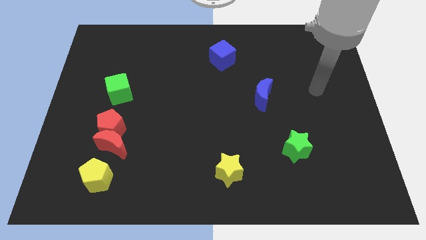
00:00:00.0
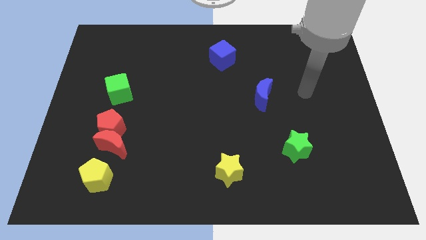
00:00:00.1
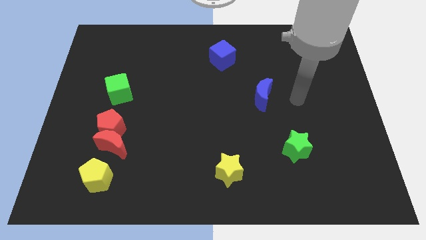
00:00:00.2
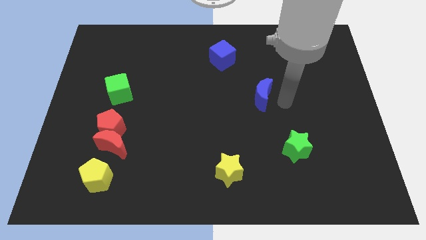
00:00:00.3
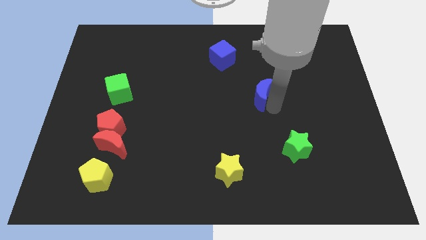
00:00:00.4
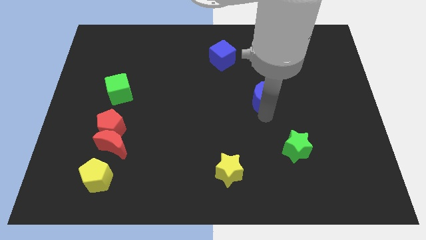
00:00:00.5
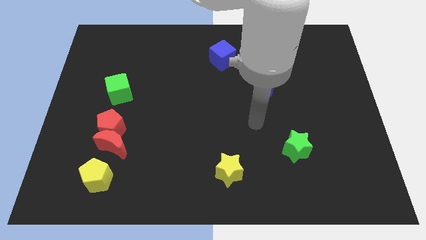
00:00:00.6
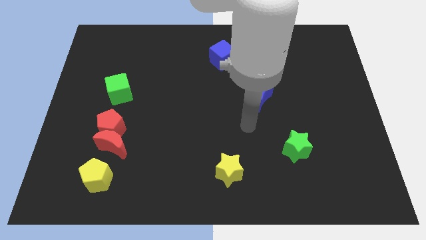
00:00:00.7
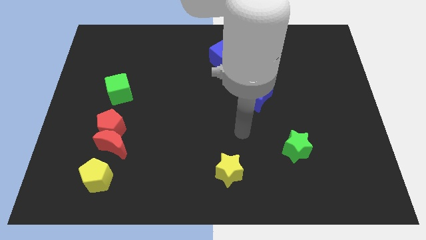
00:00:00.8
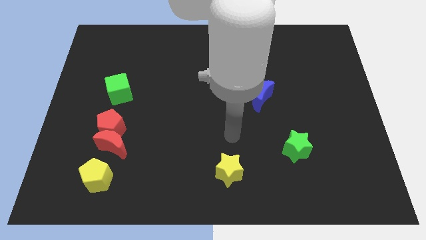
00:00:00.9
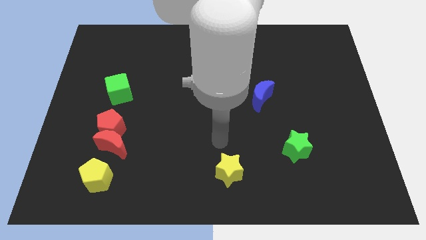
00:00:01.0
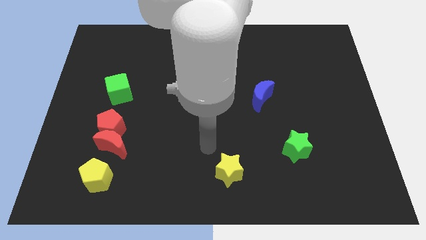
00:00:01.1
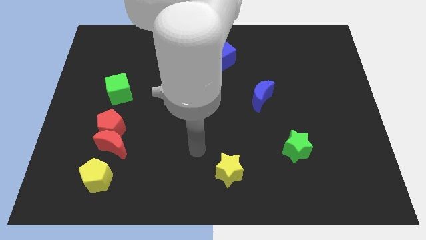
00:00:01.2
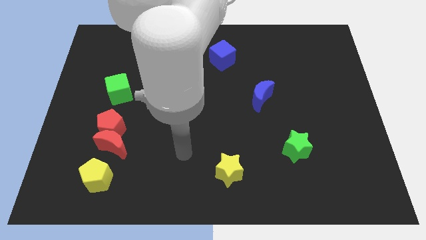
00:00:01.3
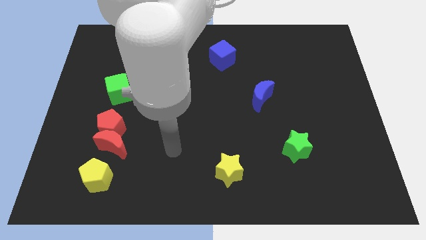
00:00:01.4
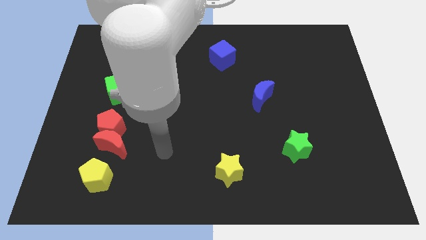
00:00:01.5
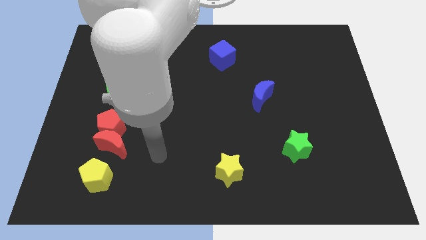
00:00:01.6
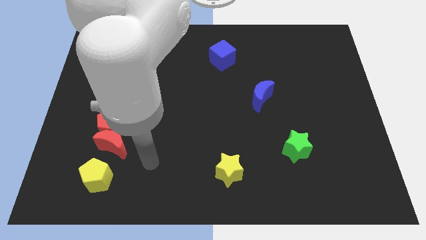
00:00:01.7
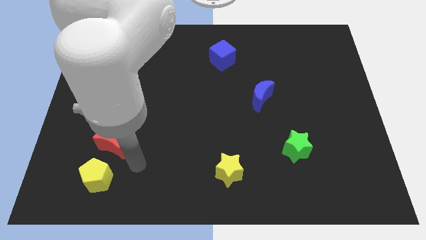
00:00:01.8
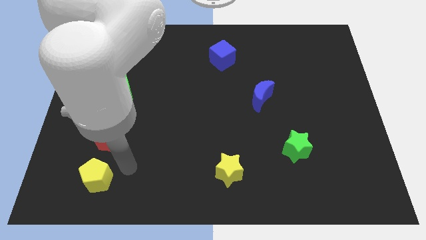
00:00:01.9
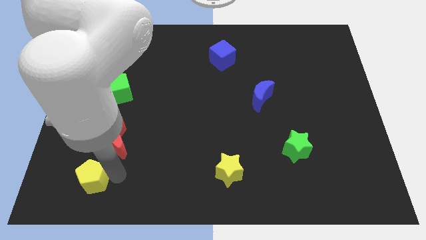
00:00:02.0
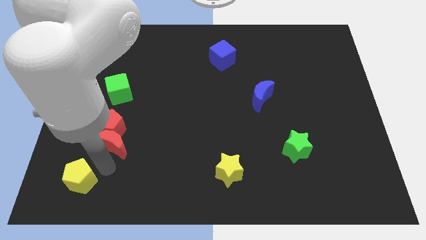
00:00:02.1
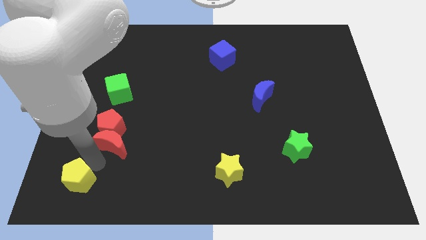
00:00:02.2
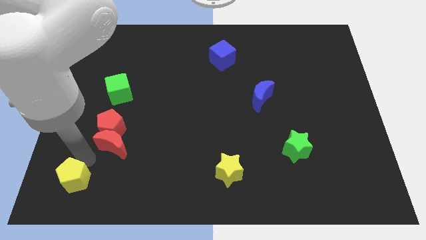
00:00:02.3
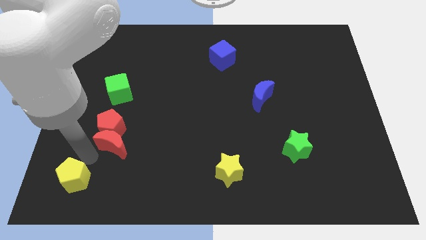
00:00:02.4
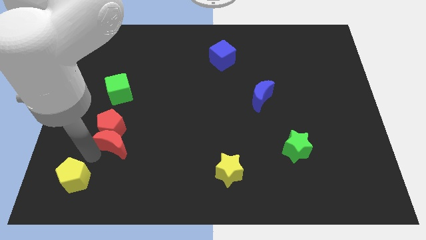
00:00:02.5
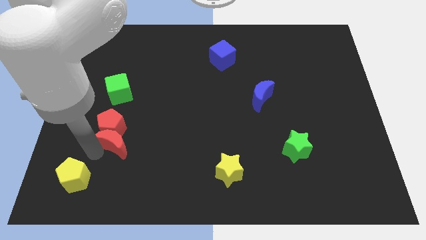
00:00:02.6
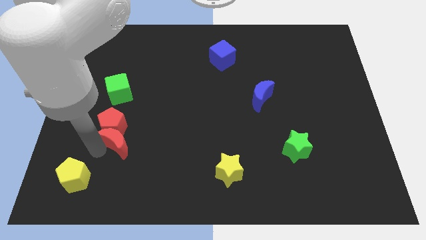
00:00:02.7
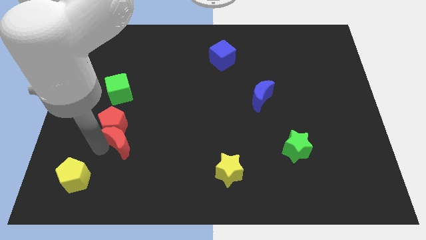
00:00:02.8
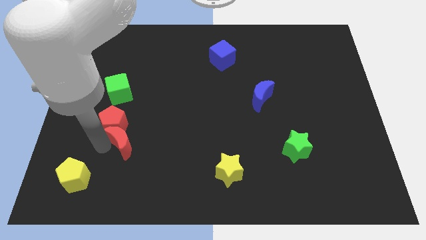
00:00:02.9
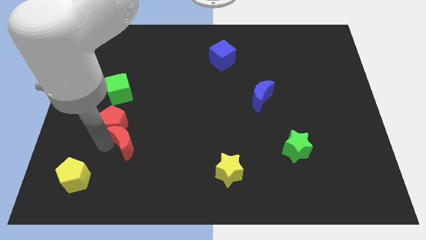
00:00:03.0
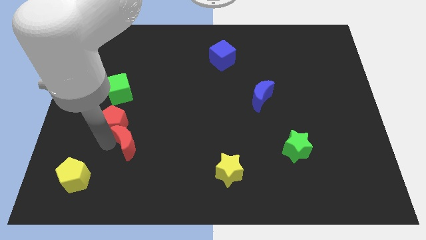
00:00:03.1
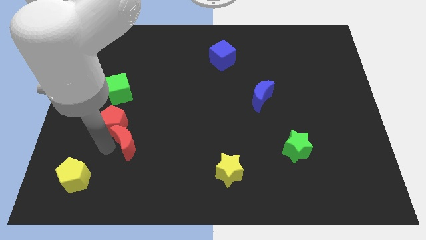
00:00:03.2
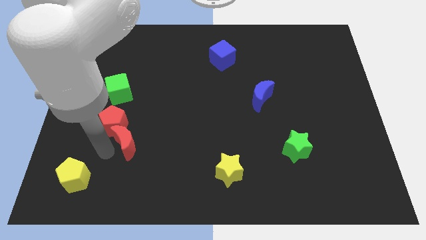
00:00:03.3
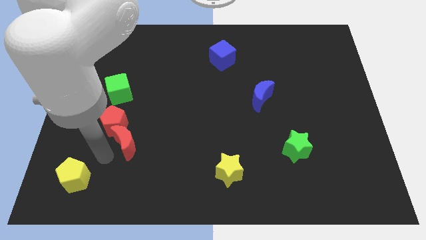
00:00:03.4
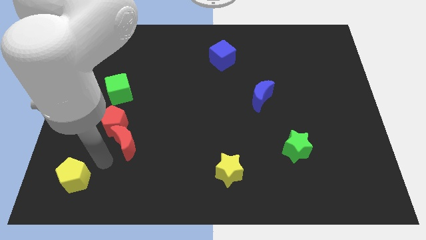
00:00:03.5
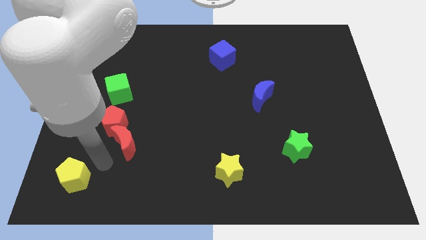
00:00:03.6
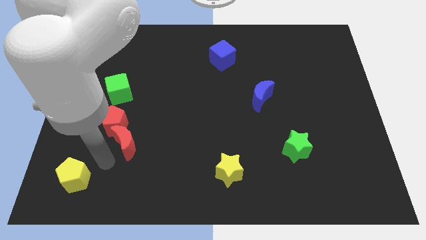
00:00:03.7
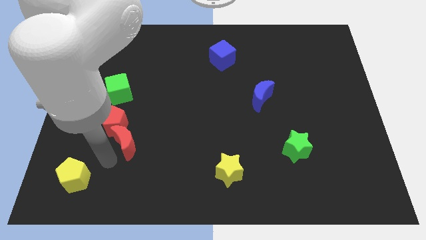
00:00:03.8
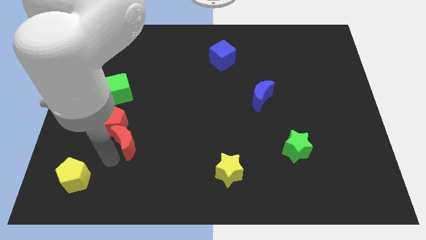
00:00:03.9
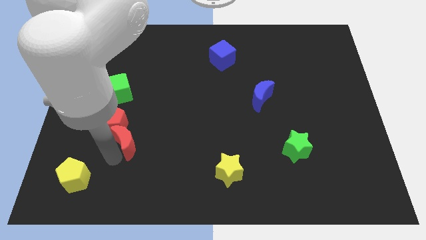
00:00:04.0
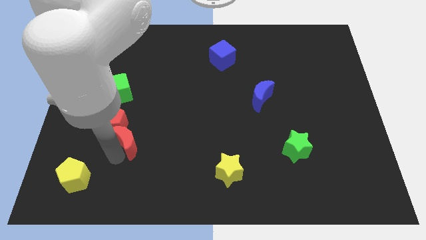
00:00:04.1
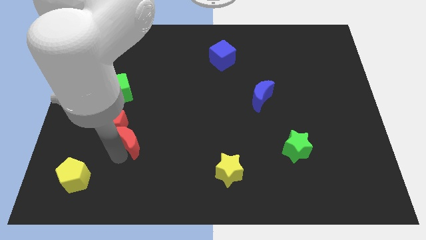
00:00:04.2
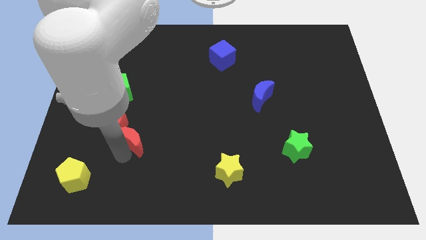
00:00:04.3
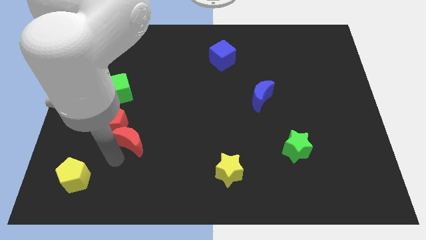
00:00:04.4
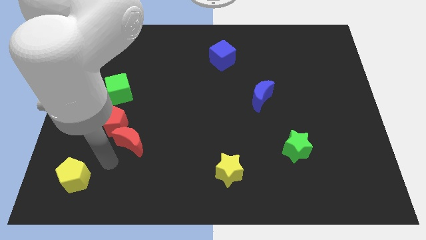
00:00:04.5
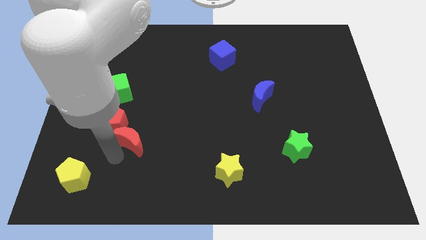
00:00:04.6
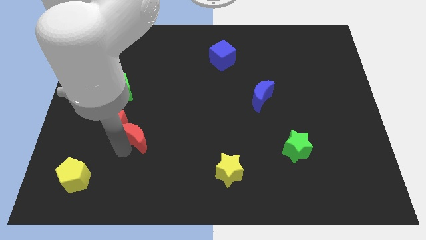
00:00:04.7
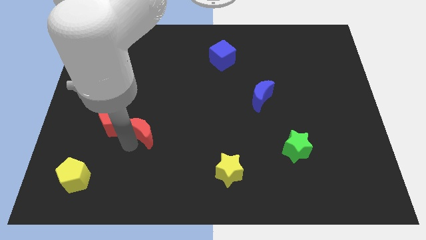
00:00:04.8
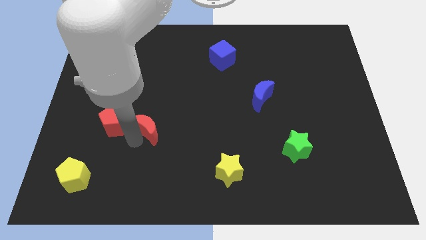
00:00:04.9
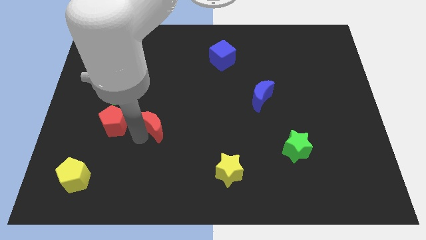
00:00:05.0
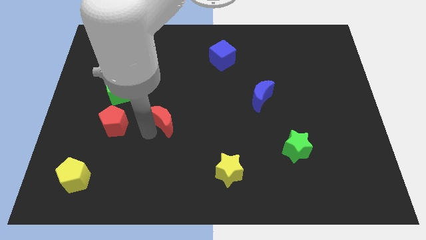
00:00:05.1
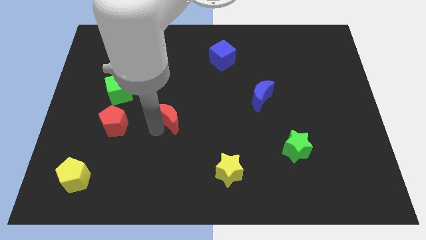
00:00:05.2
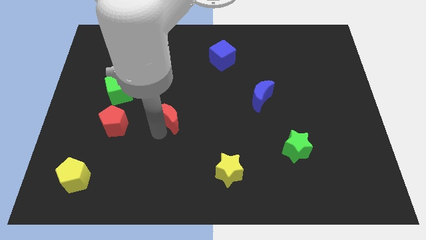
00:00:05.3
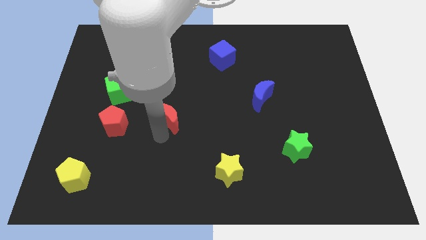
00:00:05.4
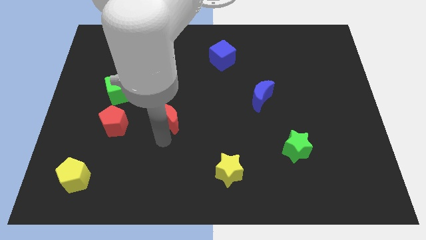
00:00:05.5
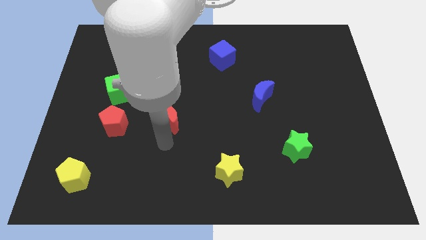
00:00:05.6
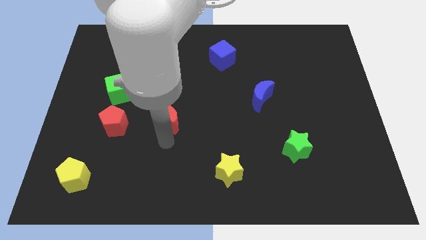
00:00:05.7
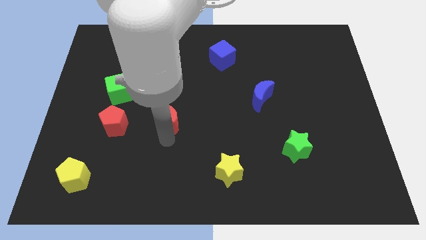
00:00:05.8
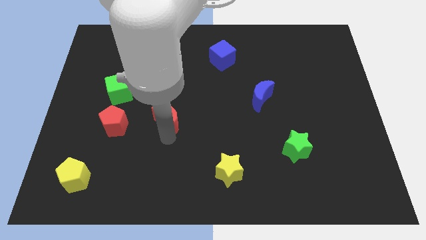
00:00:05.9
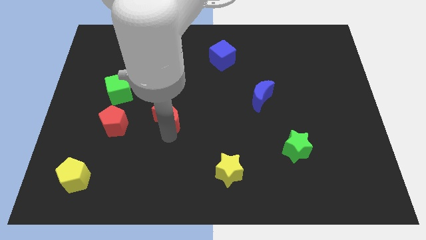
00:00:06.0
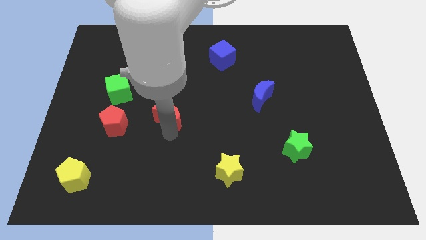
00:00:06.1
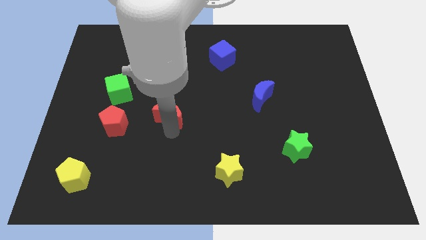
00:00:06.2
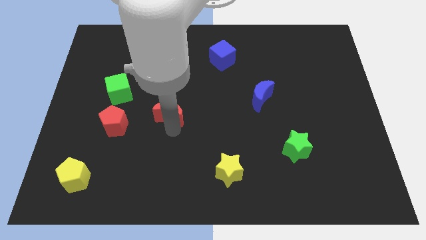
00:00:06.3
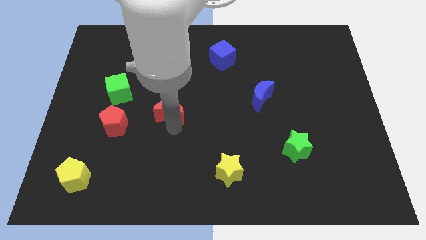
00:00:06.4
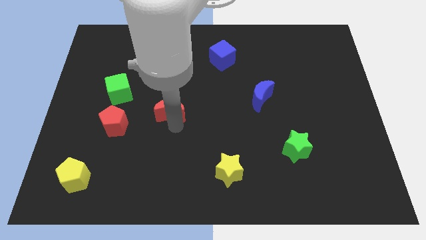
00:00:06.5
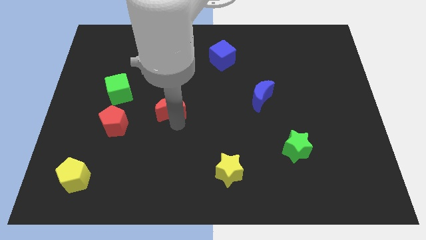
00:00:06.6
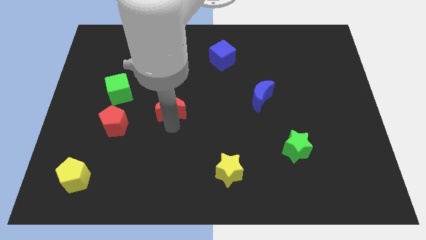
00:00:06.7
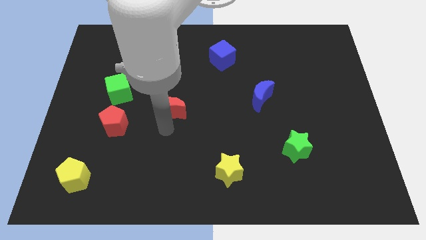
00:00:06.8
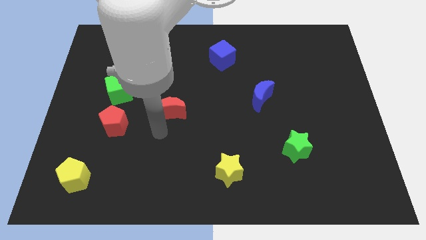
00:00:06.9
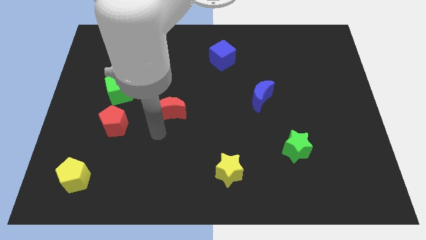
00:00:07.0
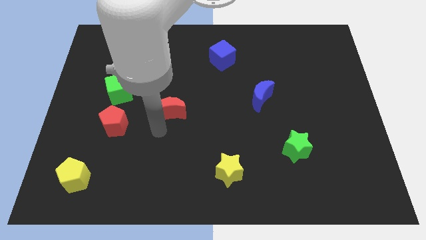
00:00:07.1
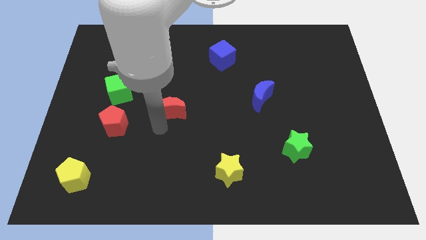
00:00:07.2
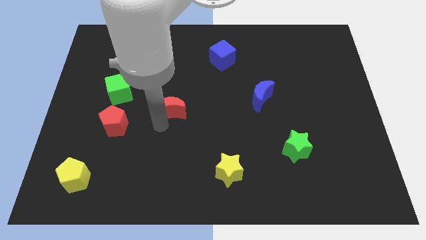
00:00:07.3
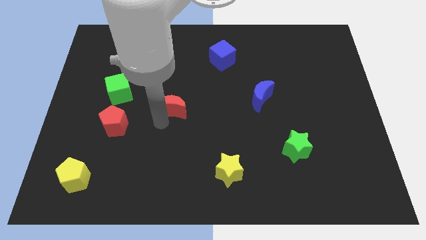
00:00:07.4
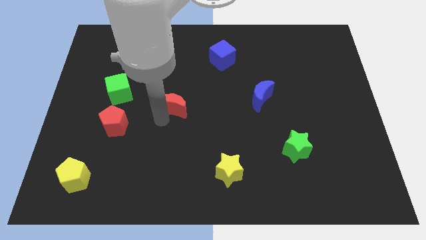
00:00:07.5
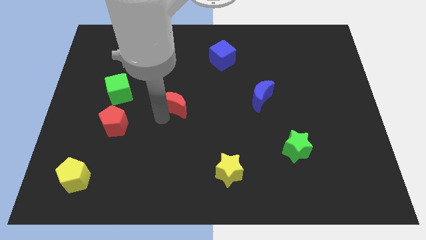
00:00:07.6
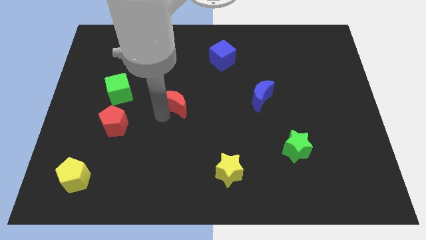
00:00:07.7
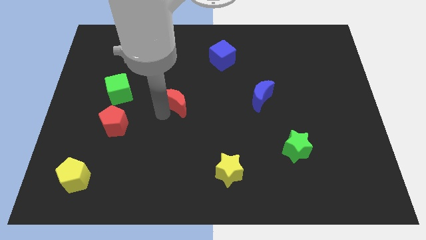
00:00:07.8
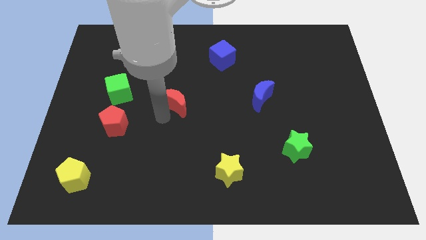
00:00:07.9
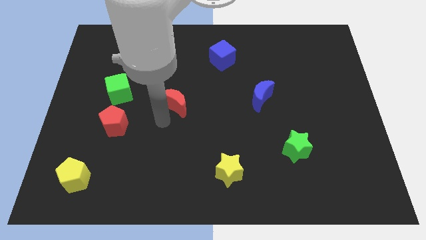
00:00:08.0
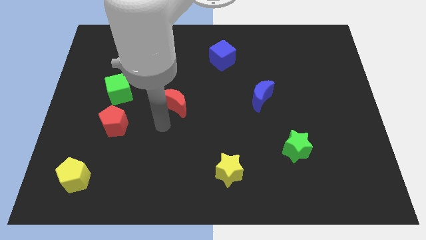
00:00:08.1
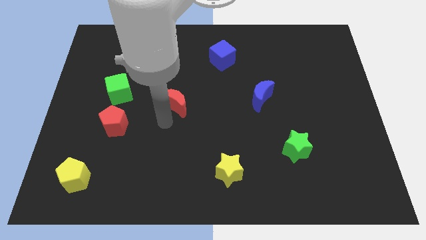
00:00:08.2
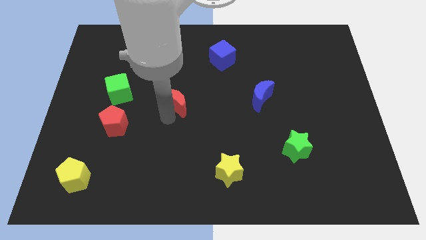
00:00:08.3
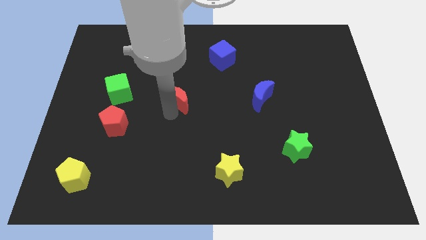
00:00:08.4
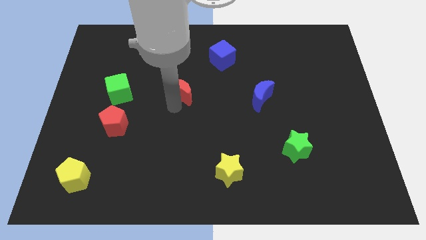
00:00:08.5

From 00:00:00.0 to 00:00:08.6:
move the red moon upwards and to the right
